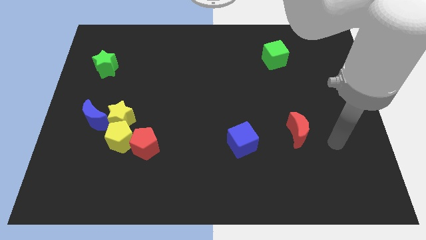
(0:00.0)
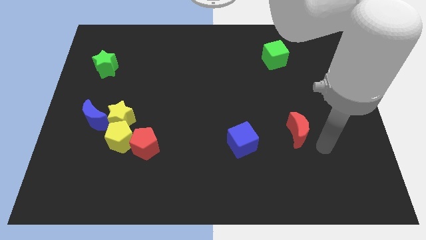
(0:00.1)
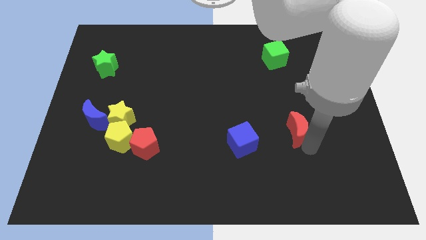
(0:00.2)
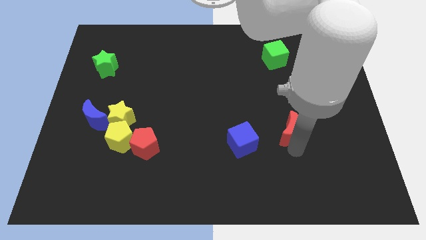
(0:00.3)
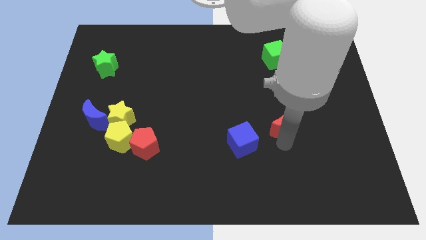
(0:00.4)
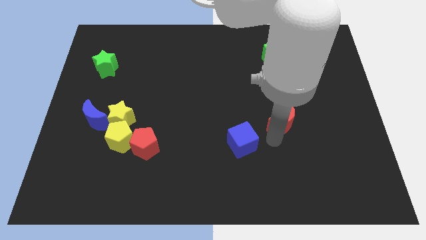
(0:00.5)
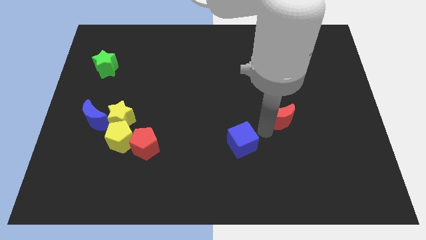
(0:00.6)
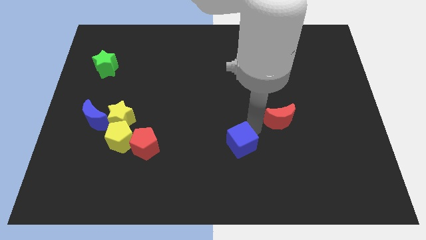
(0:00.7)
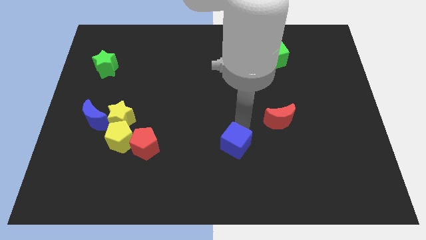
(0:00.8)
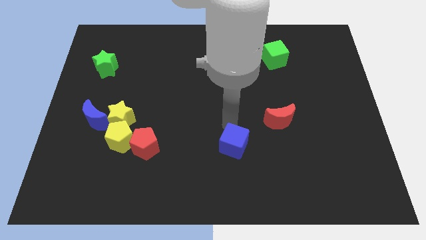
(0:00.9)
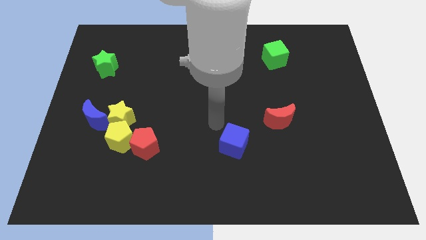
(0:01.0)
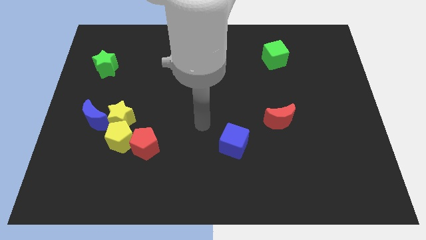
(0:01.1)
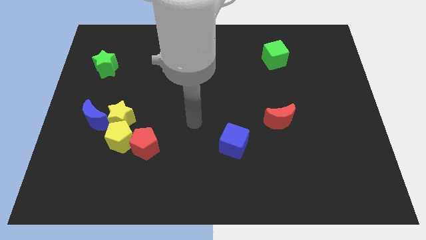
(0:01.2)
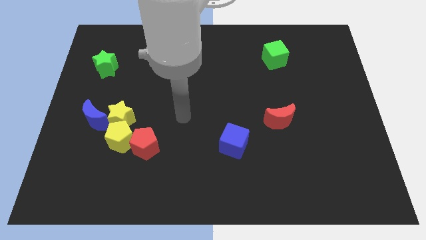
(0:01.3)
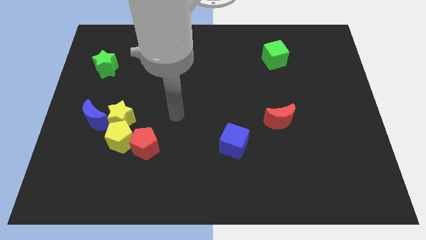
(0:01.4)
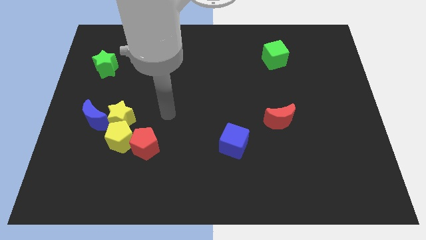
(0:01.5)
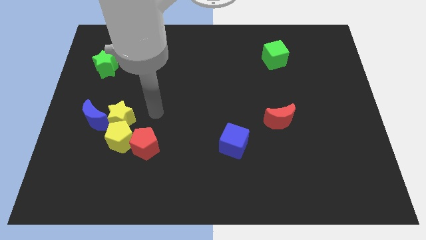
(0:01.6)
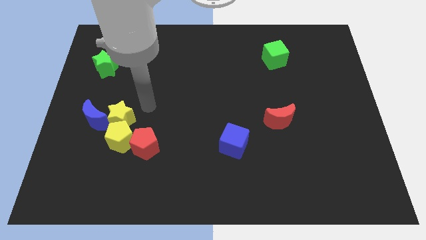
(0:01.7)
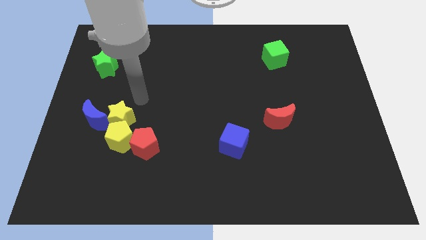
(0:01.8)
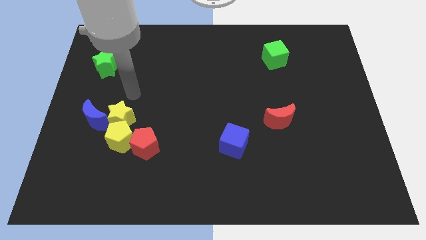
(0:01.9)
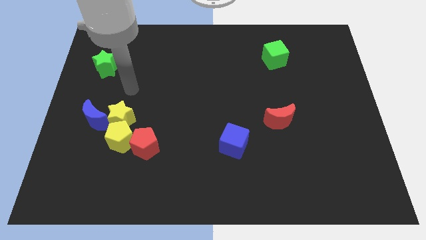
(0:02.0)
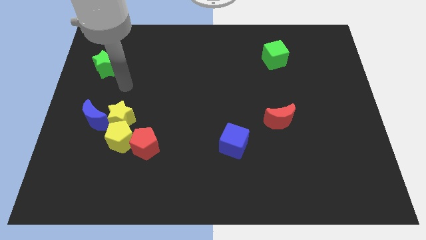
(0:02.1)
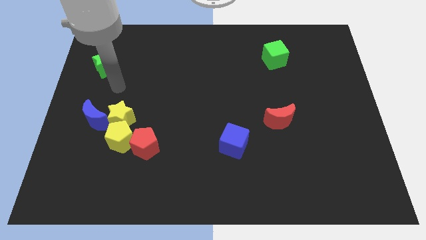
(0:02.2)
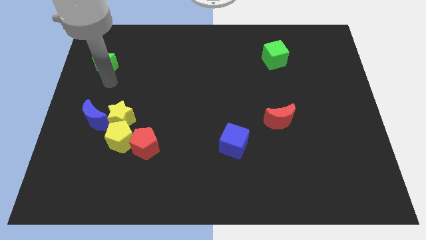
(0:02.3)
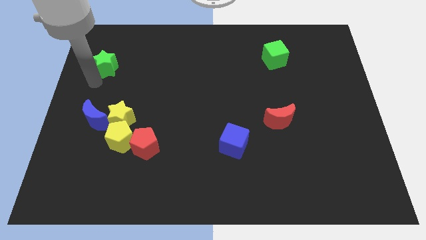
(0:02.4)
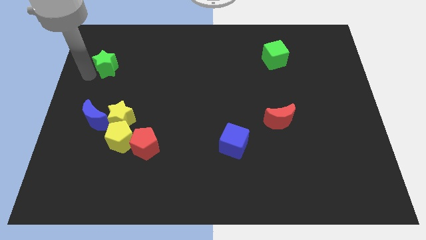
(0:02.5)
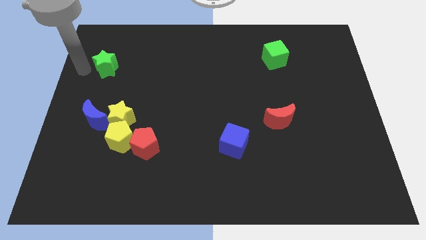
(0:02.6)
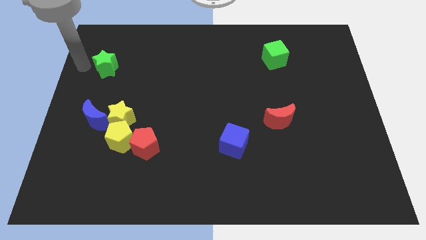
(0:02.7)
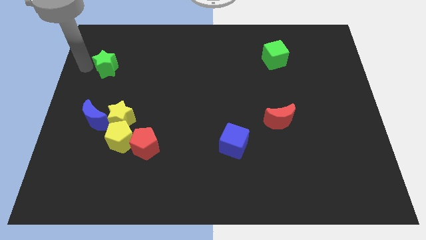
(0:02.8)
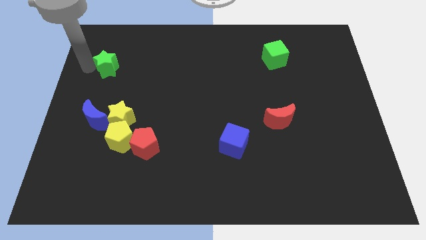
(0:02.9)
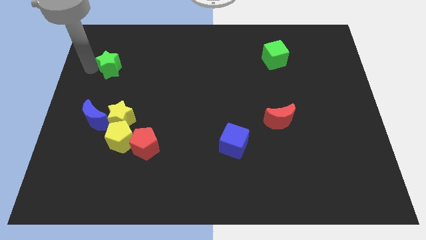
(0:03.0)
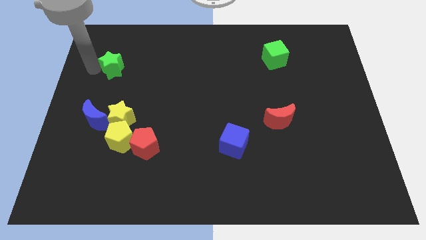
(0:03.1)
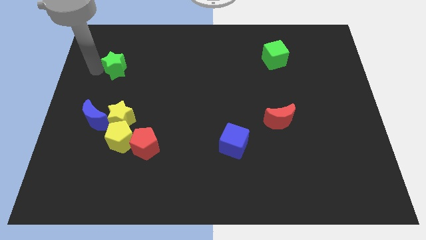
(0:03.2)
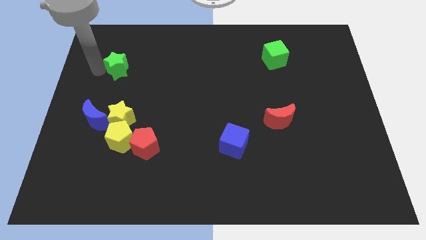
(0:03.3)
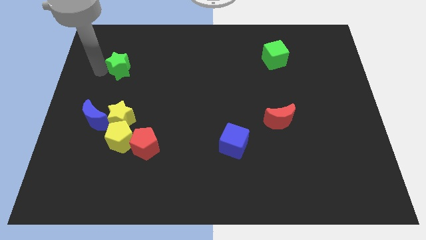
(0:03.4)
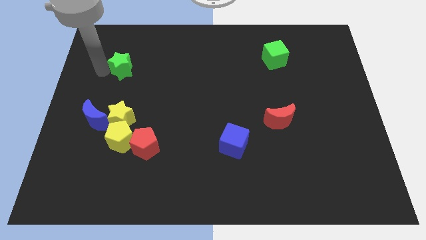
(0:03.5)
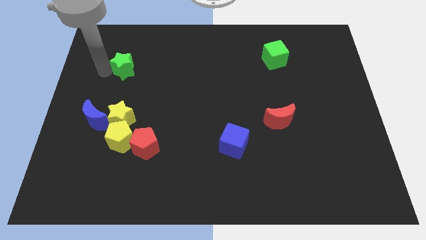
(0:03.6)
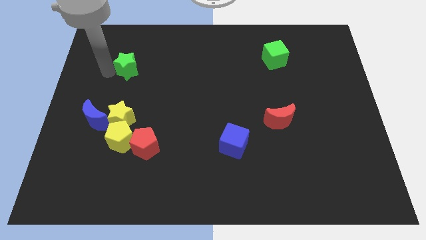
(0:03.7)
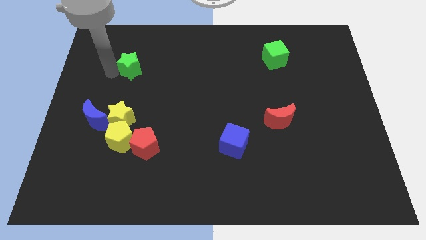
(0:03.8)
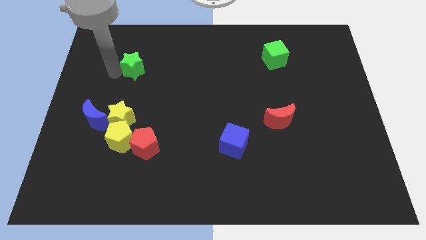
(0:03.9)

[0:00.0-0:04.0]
slide the green star to the right a little bit

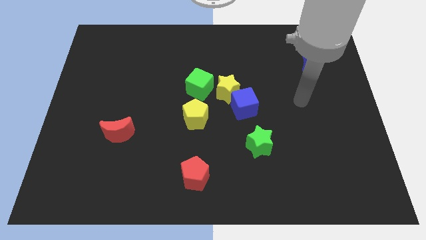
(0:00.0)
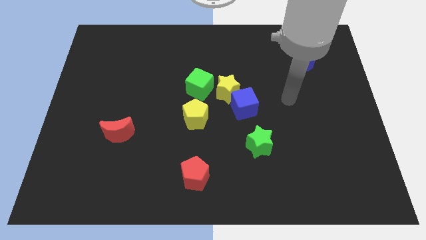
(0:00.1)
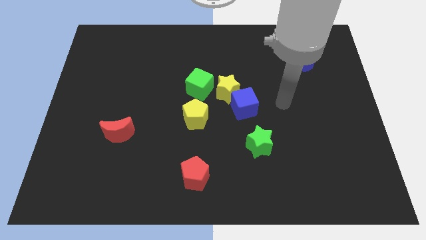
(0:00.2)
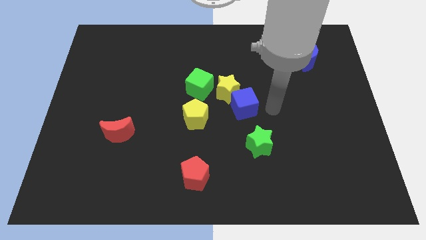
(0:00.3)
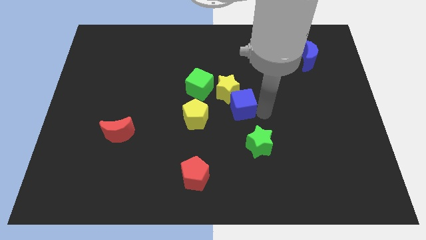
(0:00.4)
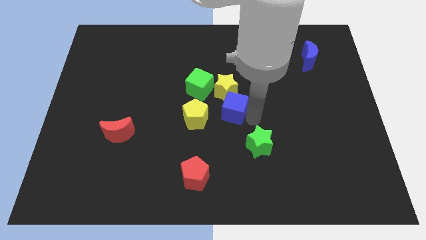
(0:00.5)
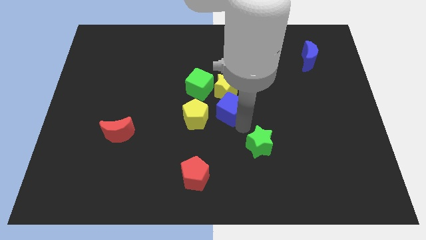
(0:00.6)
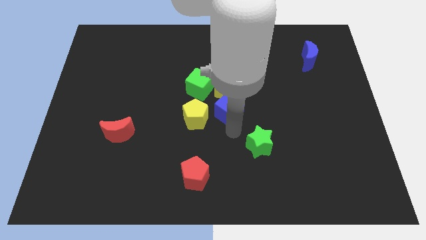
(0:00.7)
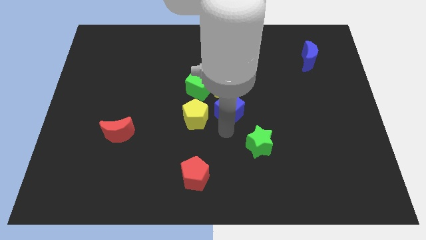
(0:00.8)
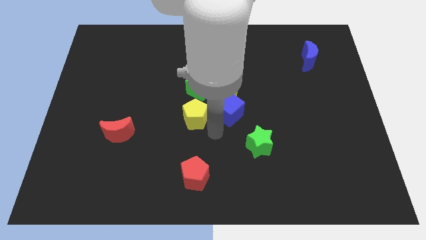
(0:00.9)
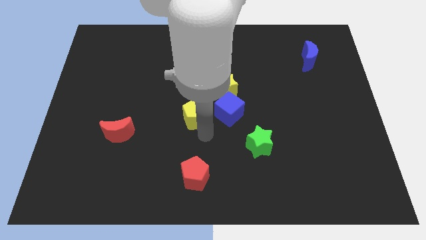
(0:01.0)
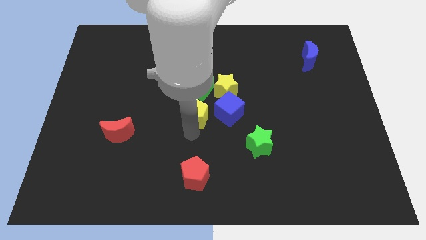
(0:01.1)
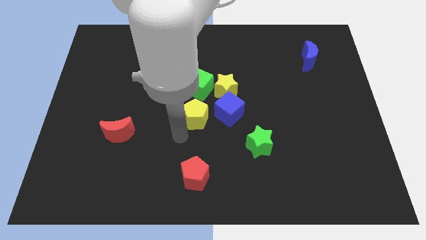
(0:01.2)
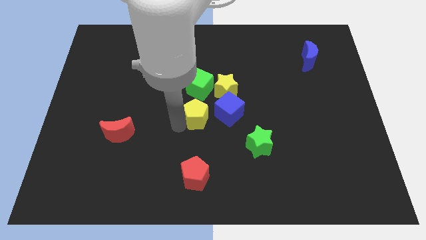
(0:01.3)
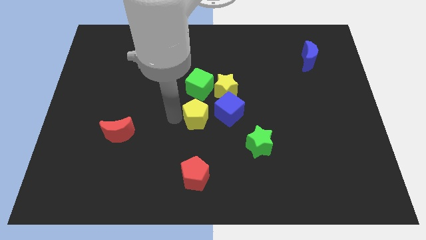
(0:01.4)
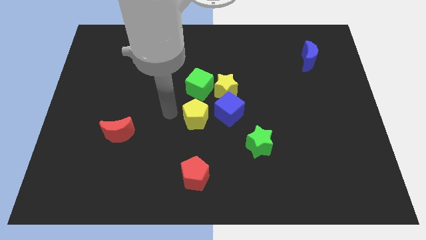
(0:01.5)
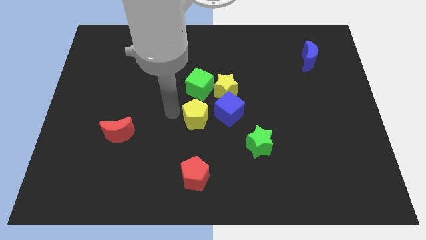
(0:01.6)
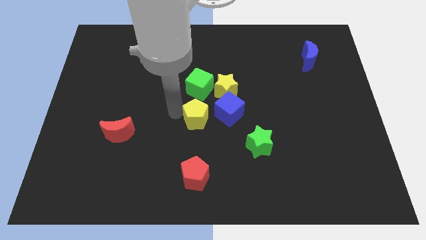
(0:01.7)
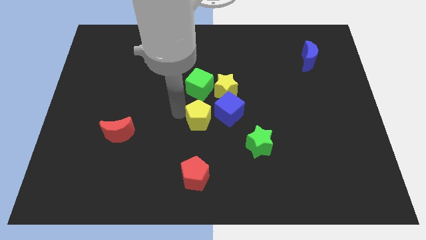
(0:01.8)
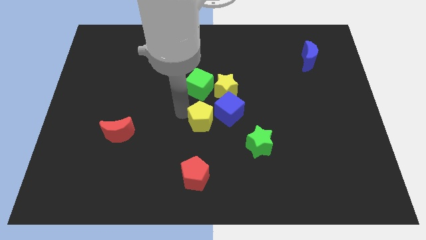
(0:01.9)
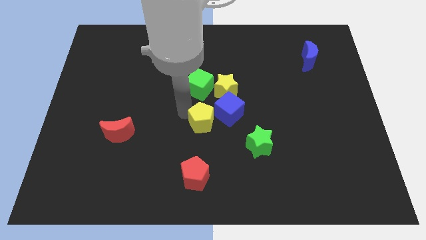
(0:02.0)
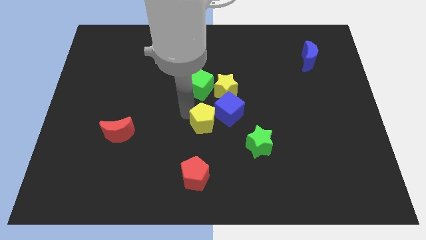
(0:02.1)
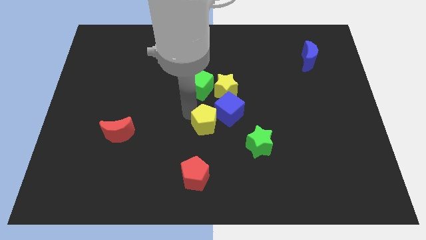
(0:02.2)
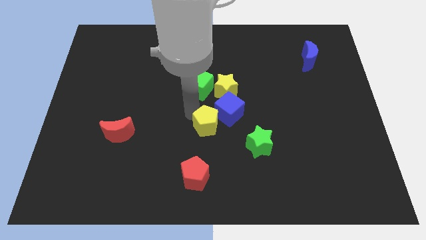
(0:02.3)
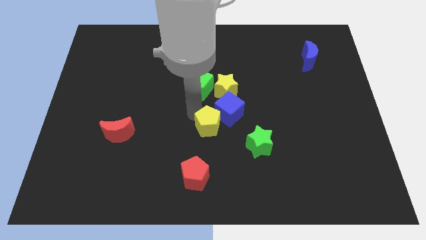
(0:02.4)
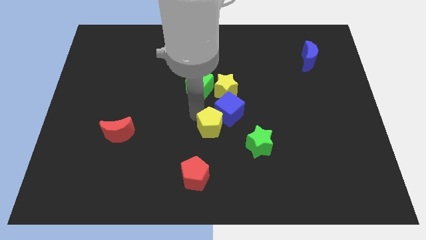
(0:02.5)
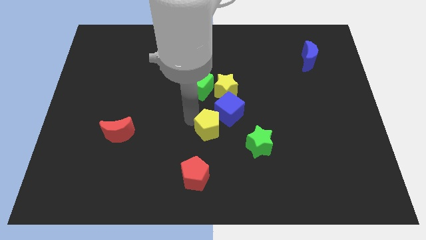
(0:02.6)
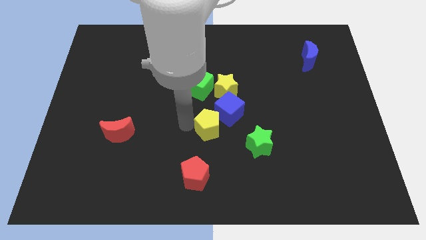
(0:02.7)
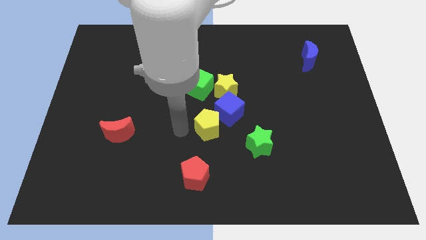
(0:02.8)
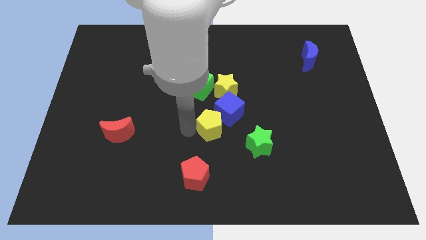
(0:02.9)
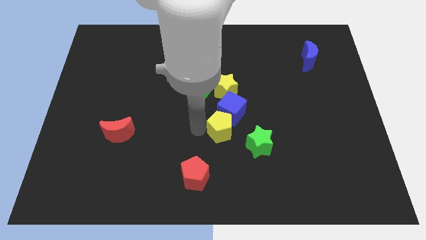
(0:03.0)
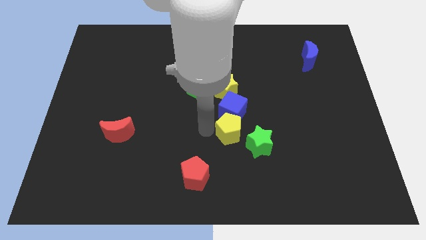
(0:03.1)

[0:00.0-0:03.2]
slightly push the yellow pentagon to the right

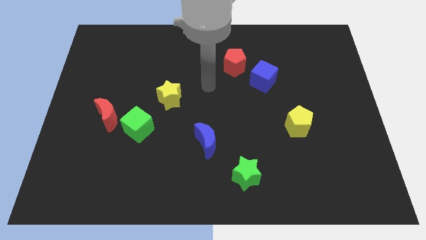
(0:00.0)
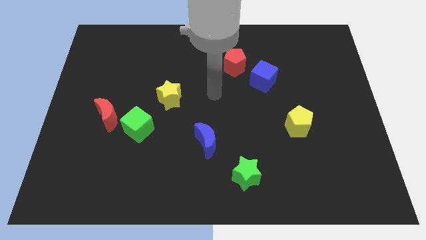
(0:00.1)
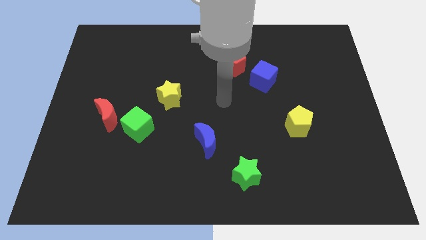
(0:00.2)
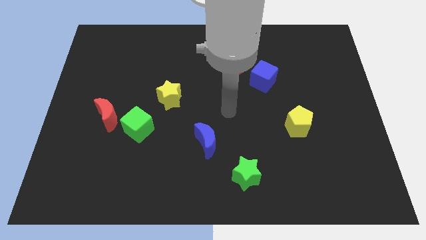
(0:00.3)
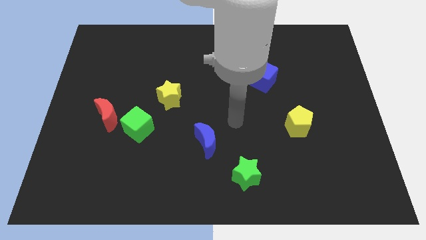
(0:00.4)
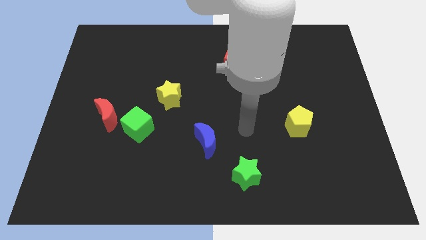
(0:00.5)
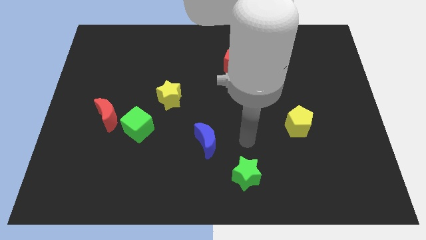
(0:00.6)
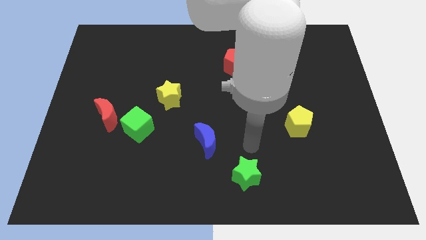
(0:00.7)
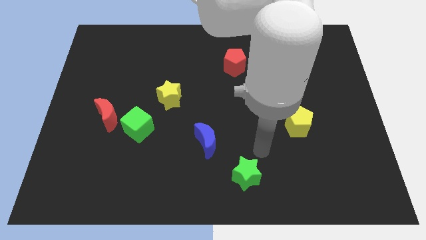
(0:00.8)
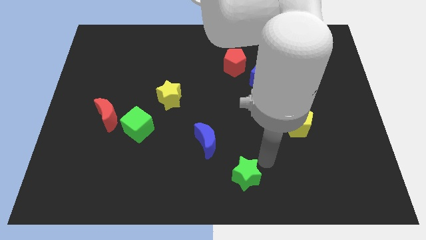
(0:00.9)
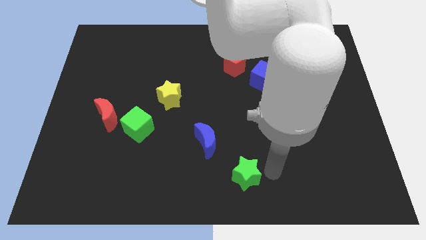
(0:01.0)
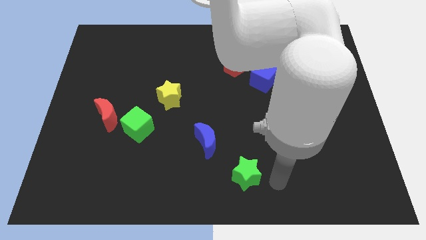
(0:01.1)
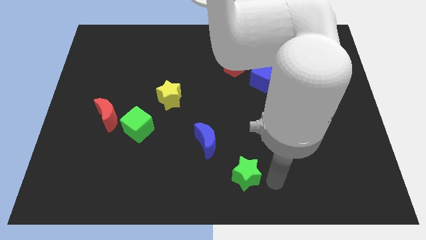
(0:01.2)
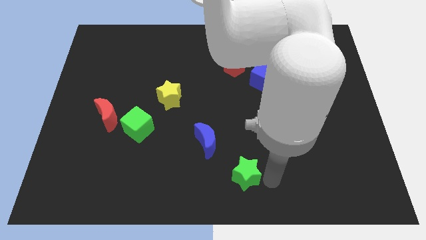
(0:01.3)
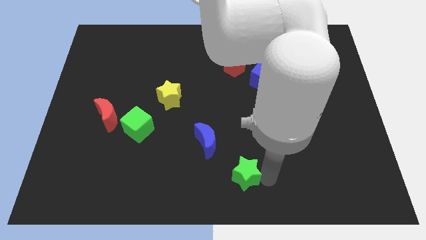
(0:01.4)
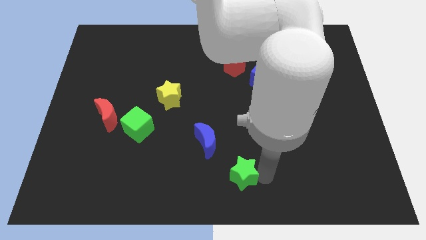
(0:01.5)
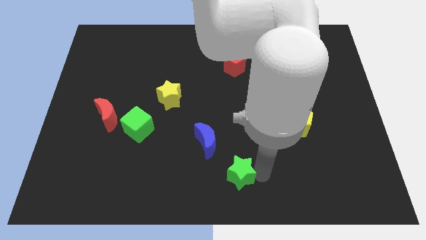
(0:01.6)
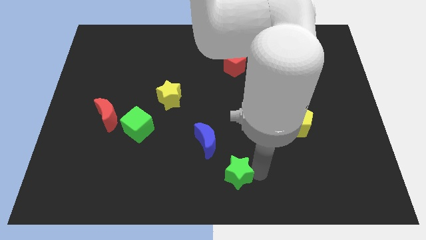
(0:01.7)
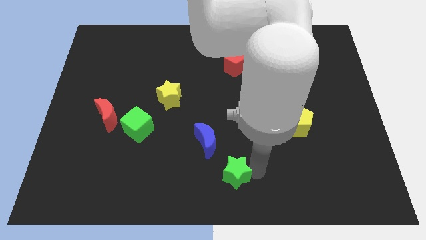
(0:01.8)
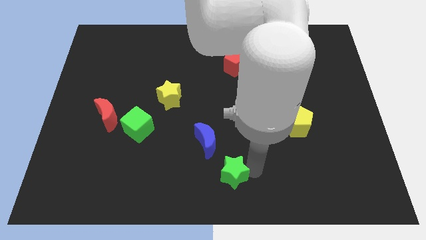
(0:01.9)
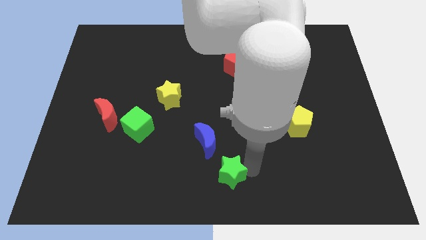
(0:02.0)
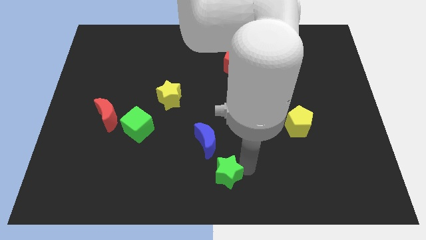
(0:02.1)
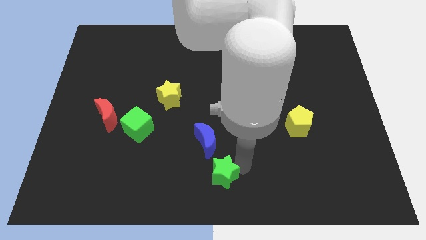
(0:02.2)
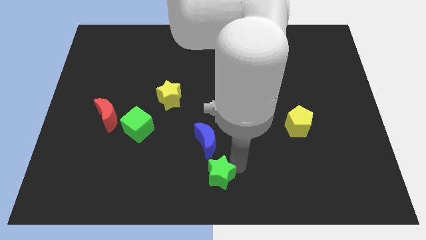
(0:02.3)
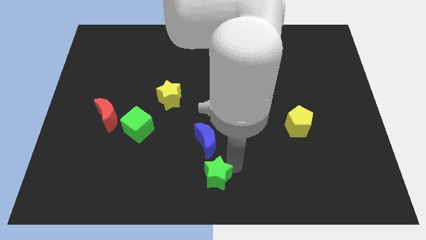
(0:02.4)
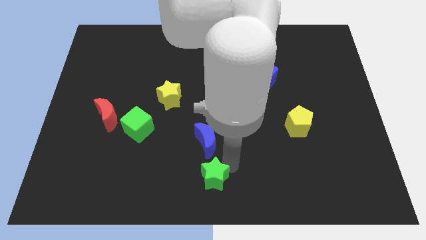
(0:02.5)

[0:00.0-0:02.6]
push the green star left a little bit
